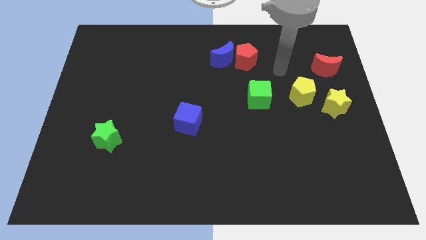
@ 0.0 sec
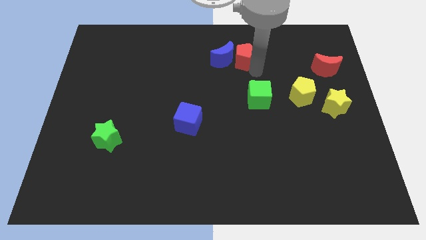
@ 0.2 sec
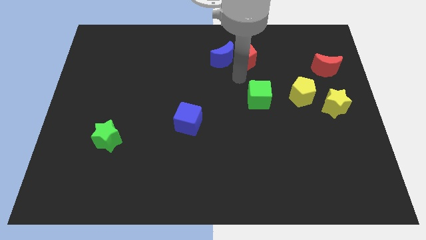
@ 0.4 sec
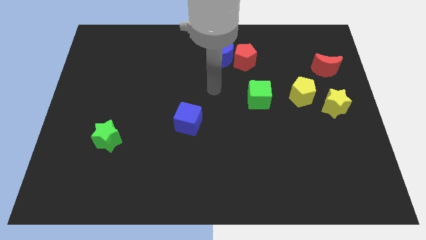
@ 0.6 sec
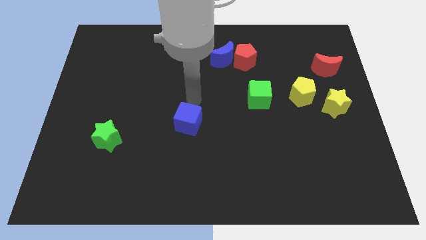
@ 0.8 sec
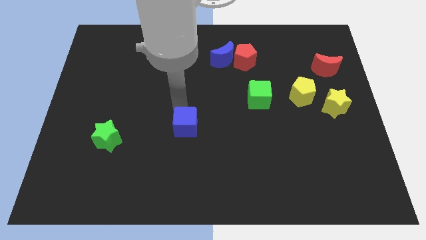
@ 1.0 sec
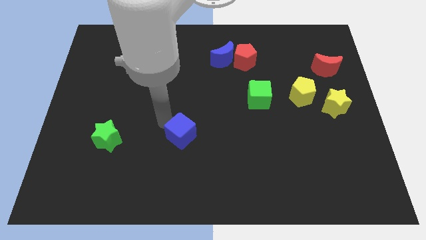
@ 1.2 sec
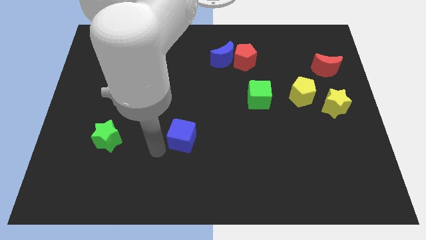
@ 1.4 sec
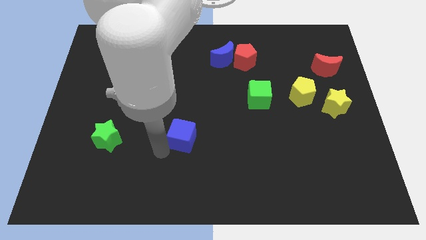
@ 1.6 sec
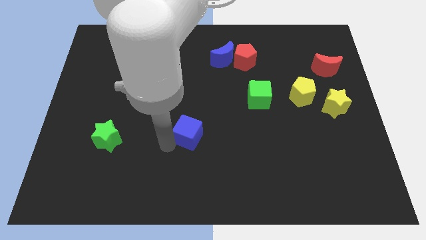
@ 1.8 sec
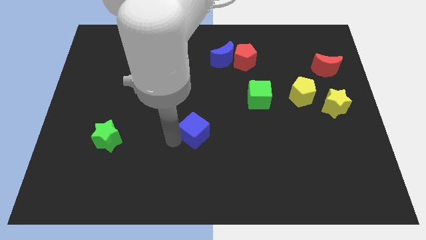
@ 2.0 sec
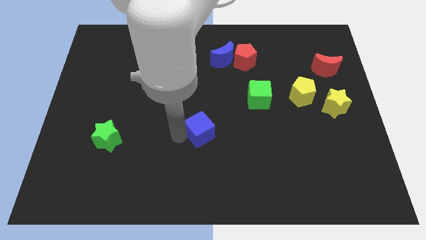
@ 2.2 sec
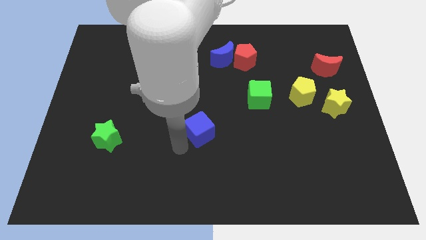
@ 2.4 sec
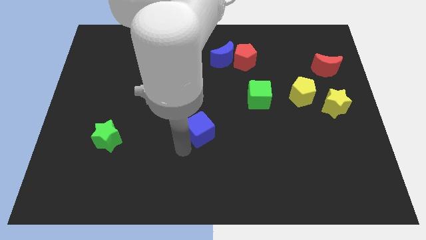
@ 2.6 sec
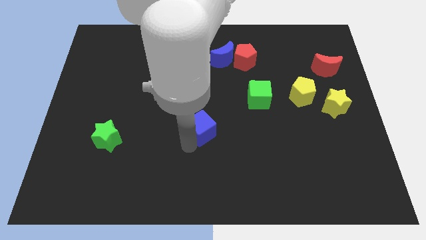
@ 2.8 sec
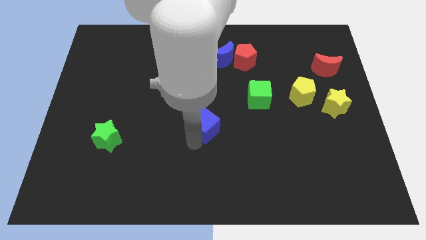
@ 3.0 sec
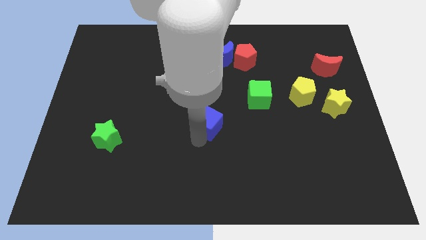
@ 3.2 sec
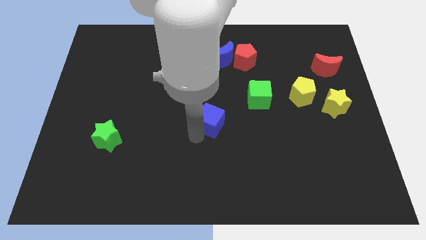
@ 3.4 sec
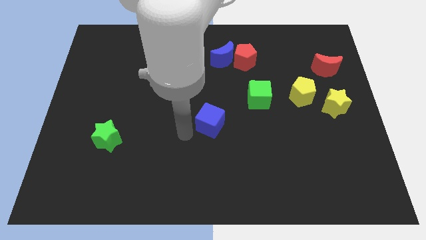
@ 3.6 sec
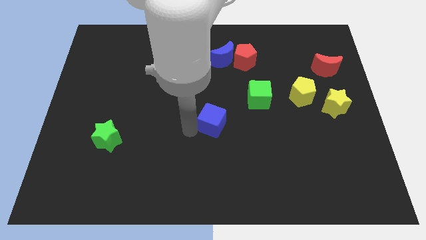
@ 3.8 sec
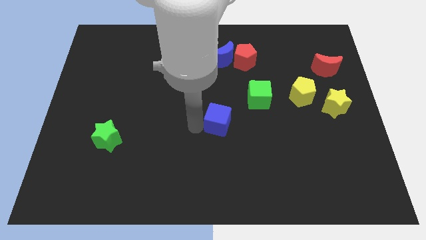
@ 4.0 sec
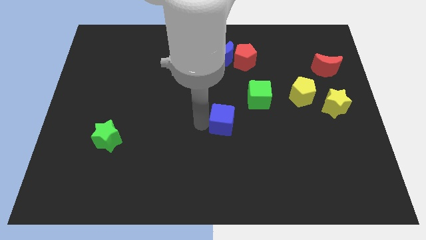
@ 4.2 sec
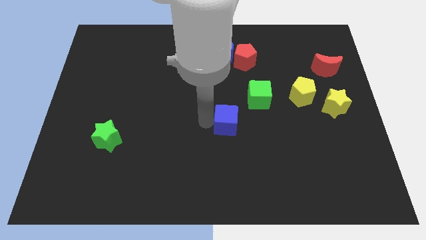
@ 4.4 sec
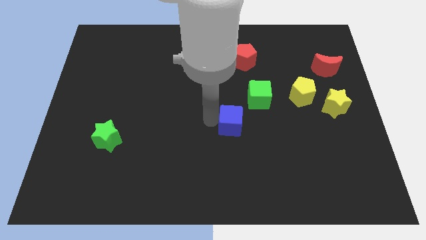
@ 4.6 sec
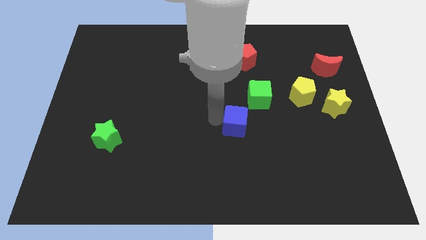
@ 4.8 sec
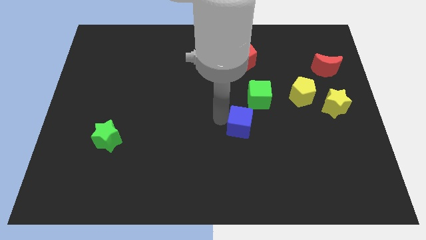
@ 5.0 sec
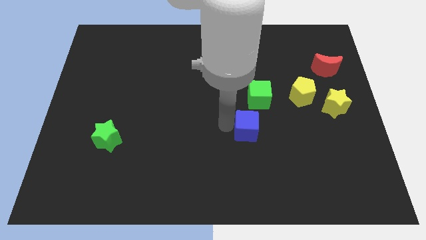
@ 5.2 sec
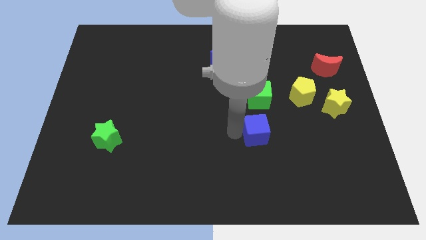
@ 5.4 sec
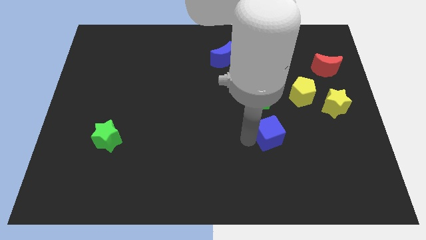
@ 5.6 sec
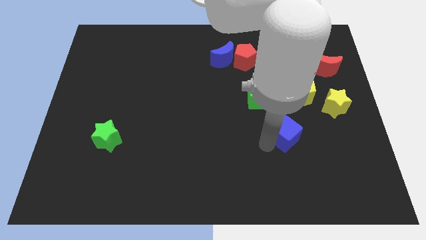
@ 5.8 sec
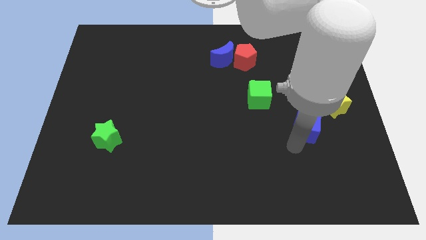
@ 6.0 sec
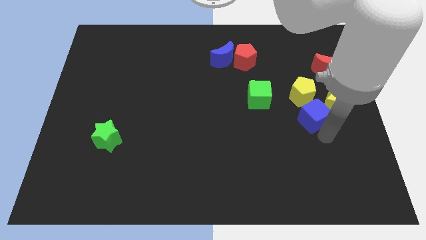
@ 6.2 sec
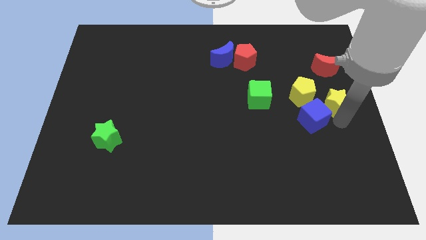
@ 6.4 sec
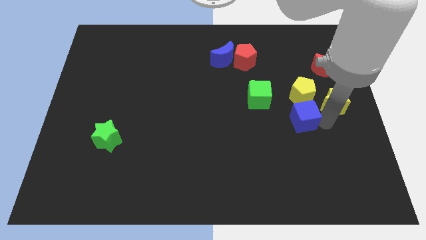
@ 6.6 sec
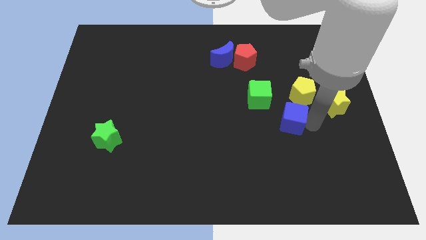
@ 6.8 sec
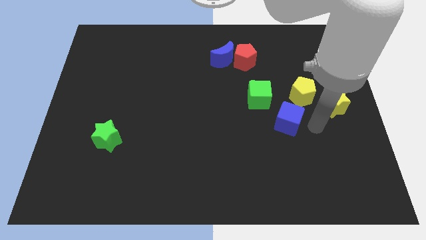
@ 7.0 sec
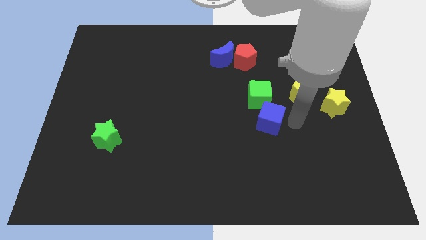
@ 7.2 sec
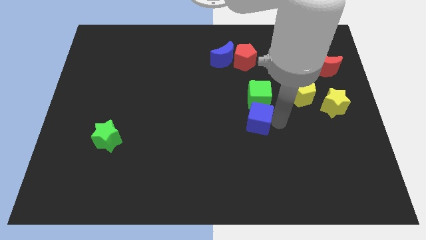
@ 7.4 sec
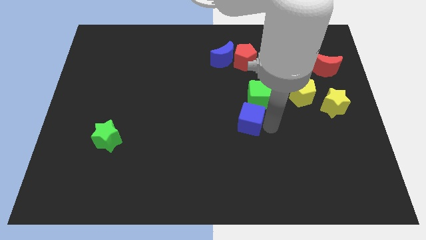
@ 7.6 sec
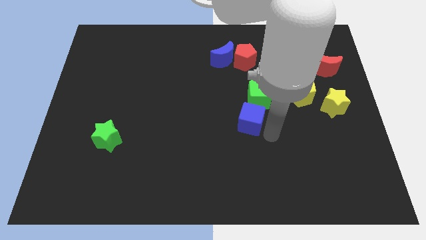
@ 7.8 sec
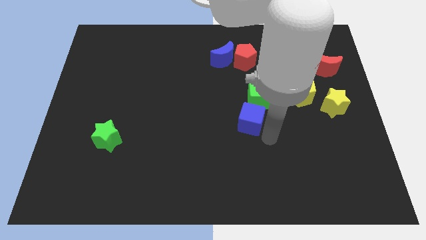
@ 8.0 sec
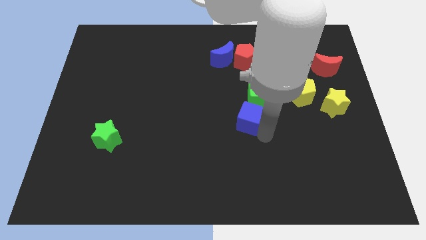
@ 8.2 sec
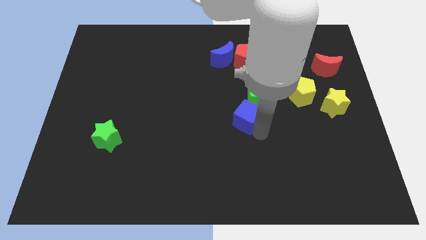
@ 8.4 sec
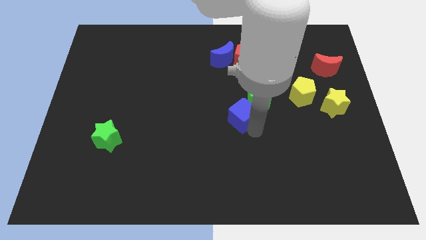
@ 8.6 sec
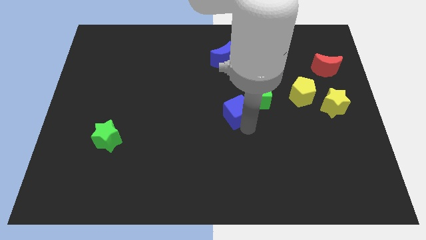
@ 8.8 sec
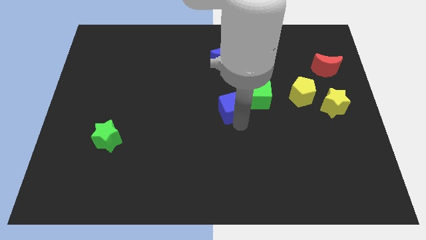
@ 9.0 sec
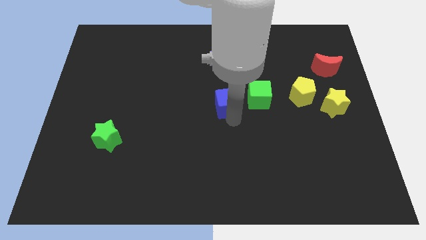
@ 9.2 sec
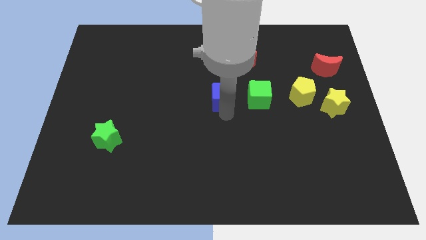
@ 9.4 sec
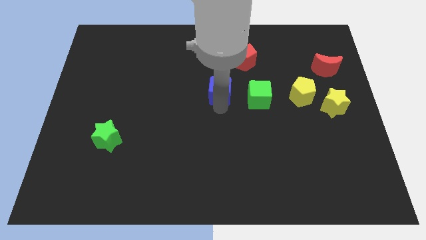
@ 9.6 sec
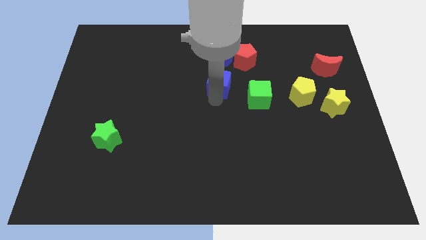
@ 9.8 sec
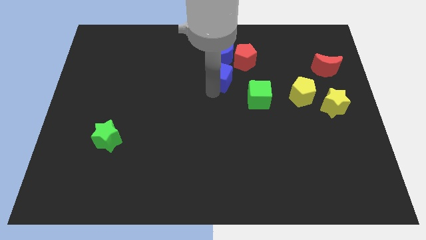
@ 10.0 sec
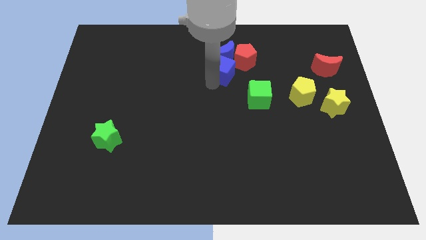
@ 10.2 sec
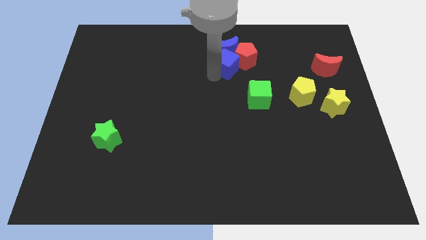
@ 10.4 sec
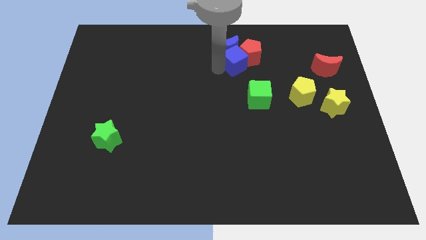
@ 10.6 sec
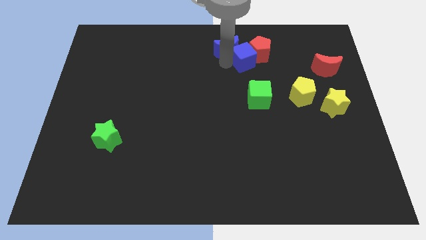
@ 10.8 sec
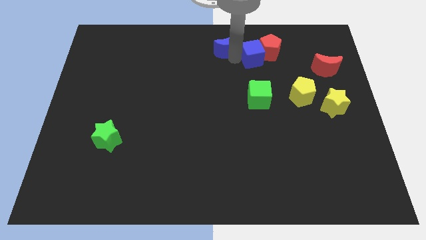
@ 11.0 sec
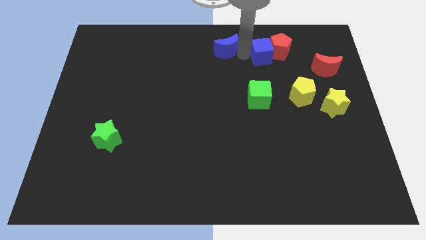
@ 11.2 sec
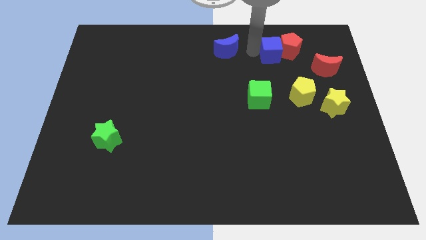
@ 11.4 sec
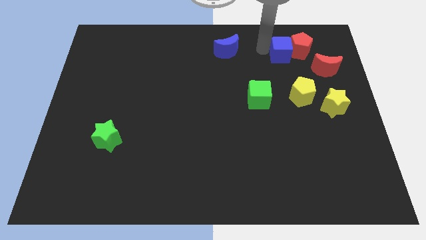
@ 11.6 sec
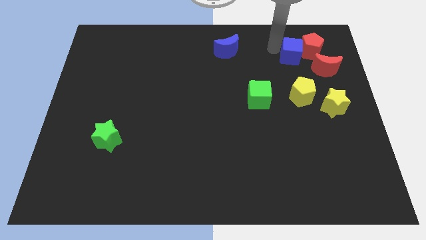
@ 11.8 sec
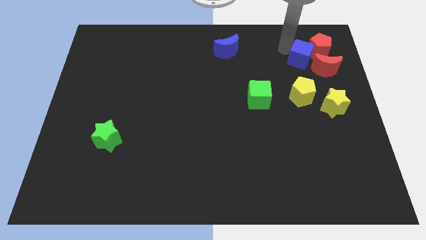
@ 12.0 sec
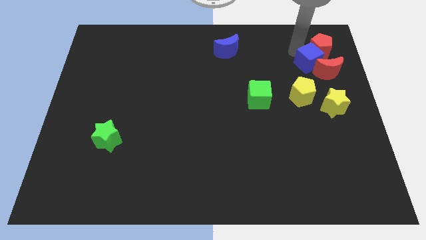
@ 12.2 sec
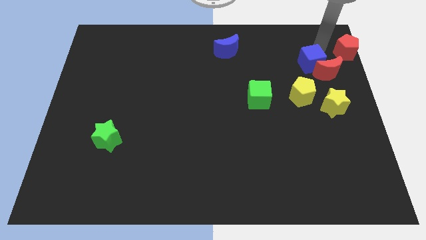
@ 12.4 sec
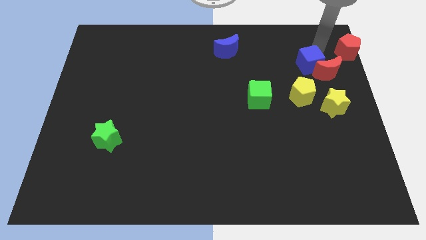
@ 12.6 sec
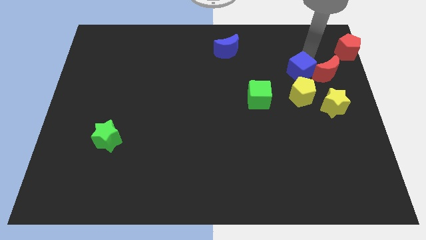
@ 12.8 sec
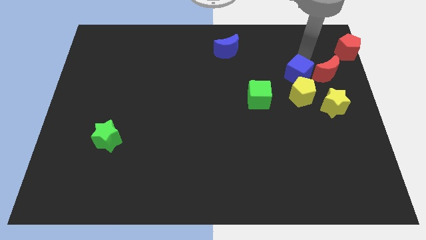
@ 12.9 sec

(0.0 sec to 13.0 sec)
slide the blue cube diagonally up and to the left of the yellow star
